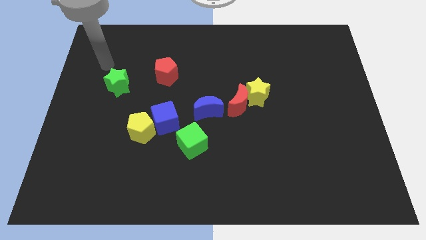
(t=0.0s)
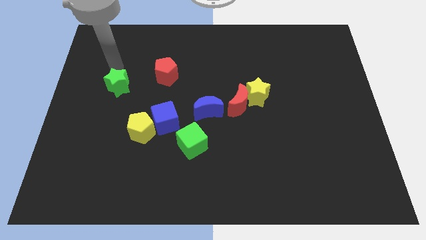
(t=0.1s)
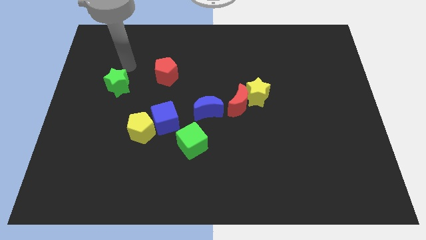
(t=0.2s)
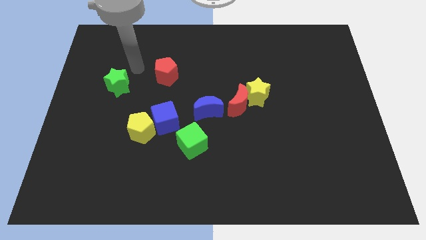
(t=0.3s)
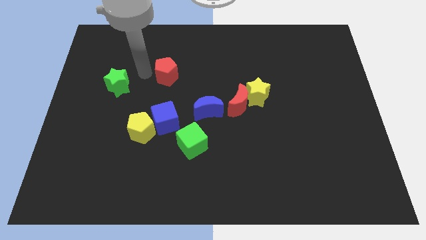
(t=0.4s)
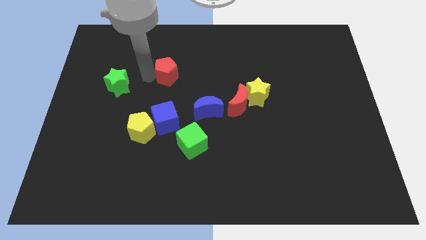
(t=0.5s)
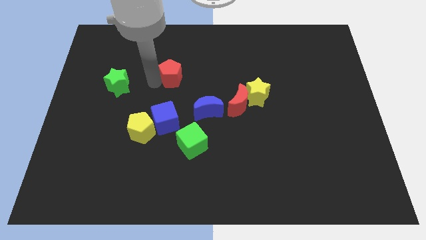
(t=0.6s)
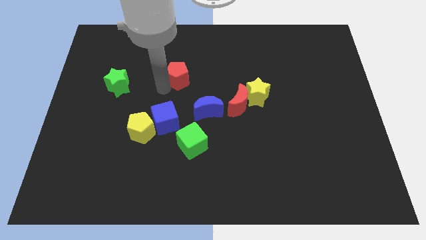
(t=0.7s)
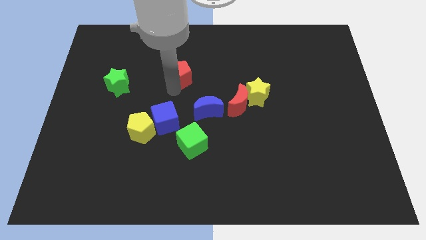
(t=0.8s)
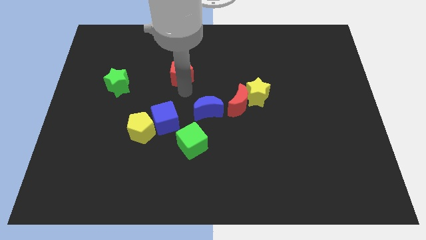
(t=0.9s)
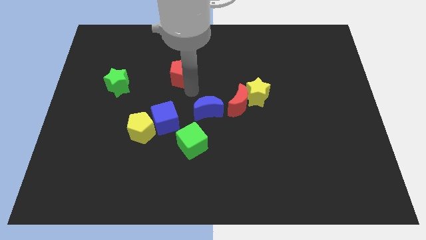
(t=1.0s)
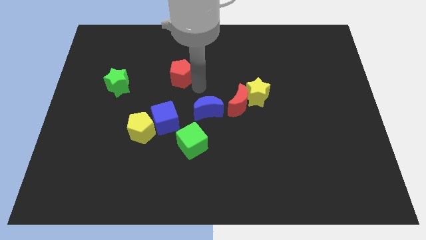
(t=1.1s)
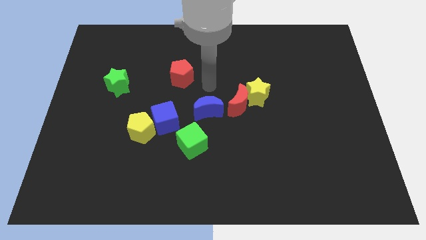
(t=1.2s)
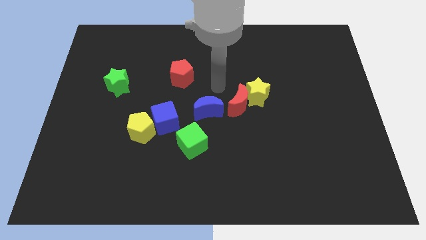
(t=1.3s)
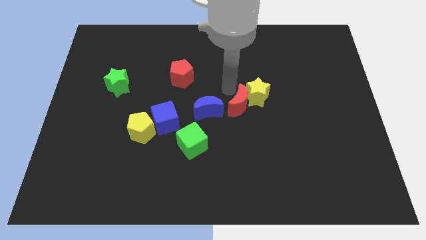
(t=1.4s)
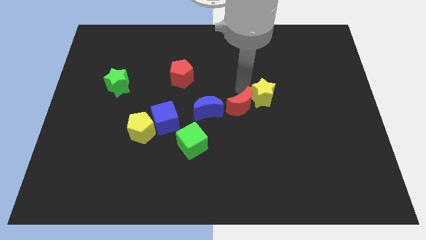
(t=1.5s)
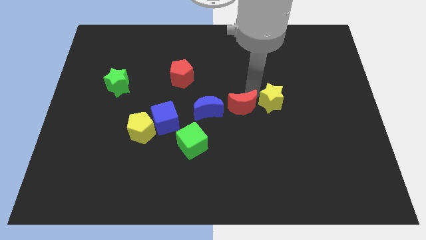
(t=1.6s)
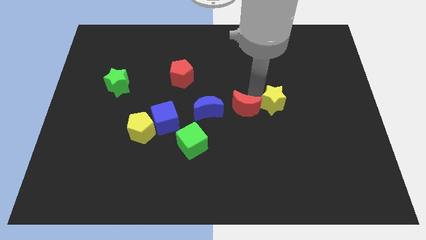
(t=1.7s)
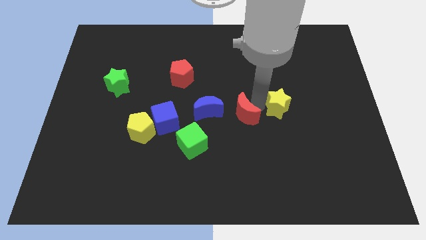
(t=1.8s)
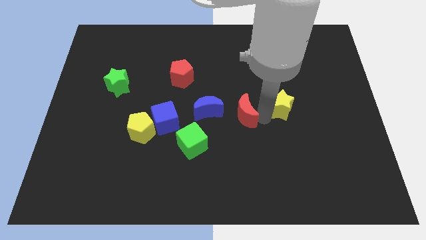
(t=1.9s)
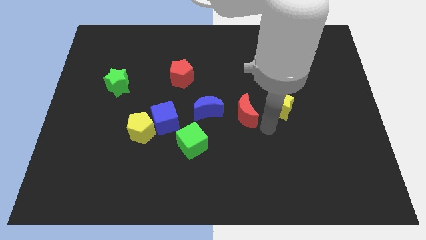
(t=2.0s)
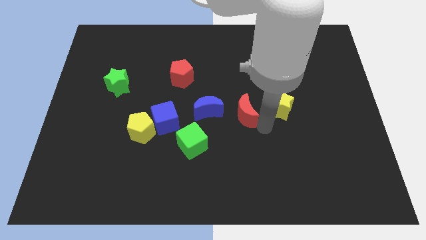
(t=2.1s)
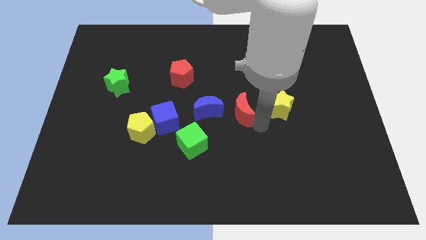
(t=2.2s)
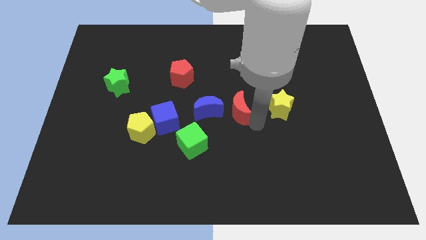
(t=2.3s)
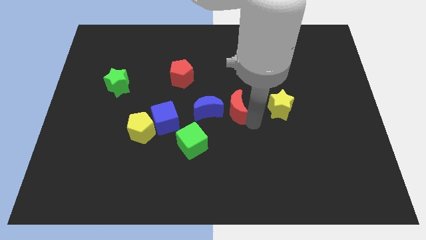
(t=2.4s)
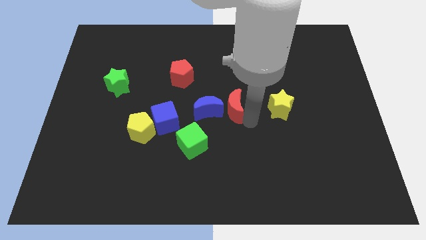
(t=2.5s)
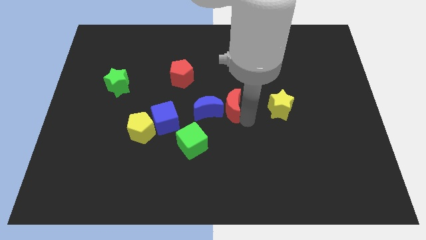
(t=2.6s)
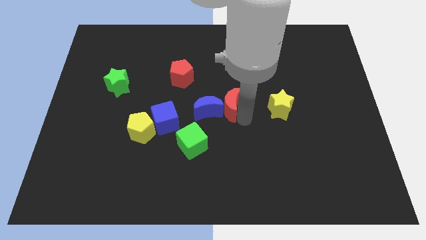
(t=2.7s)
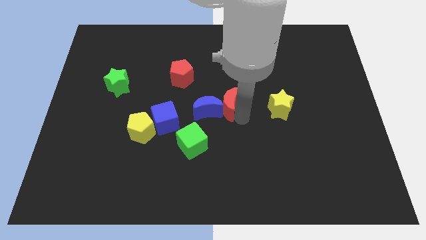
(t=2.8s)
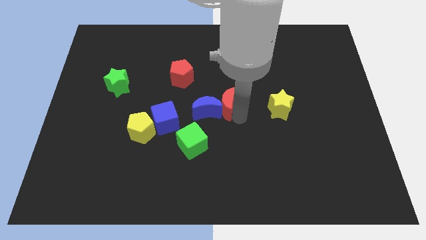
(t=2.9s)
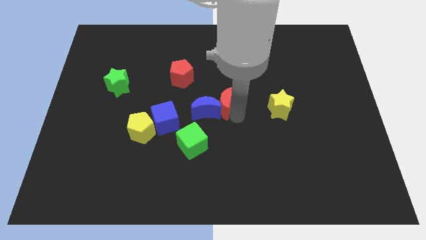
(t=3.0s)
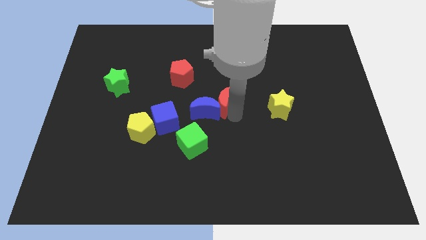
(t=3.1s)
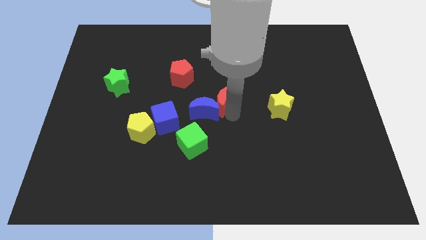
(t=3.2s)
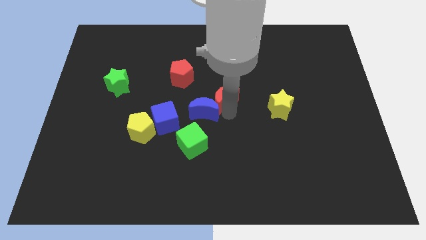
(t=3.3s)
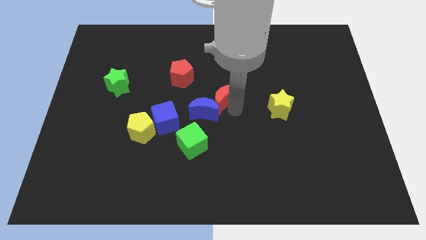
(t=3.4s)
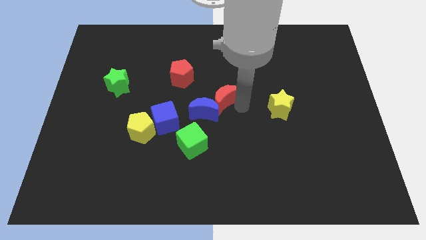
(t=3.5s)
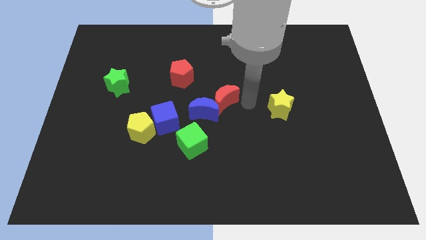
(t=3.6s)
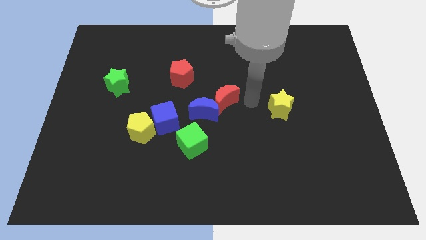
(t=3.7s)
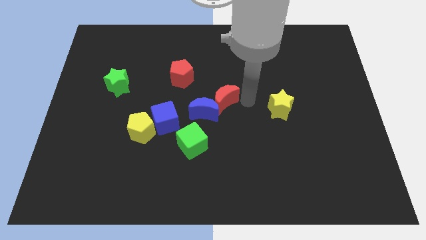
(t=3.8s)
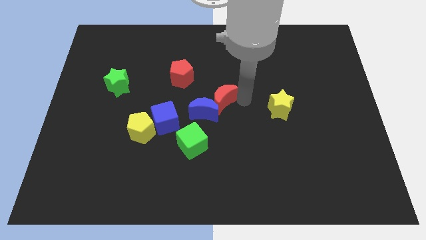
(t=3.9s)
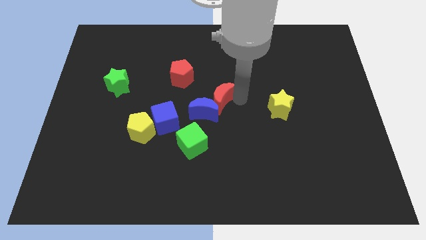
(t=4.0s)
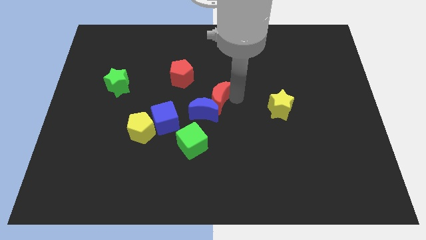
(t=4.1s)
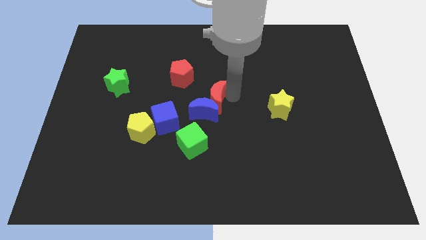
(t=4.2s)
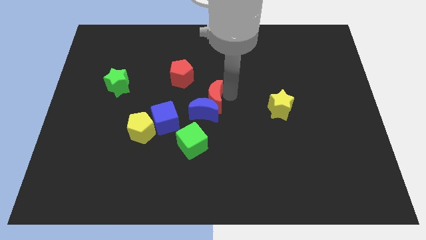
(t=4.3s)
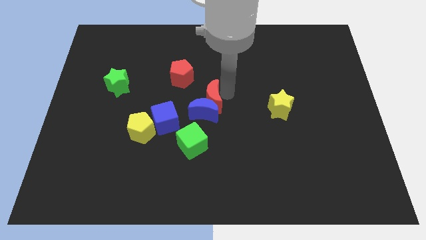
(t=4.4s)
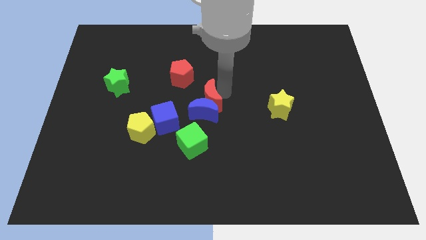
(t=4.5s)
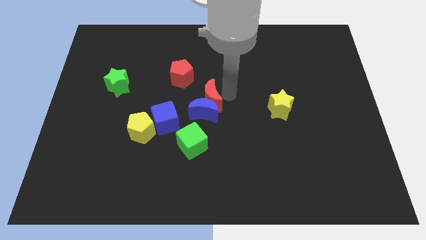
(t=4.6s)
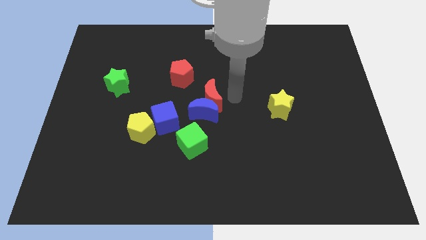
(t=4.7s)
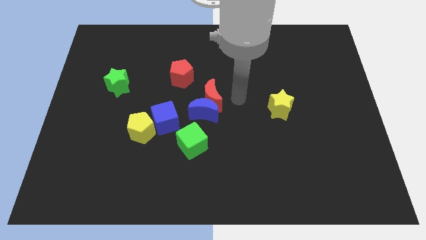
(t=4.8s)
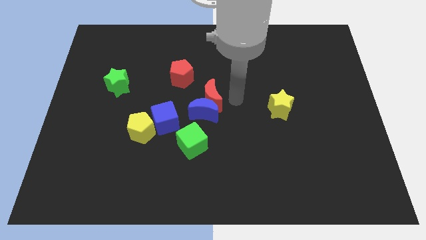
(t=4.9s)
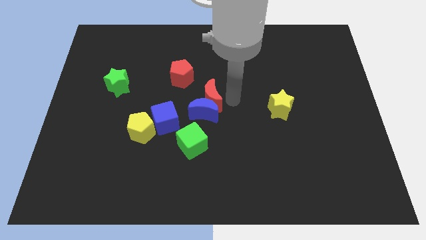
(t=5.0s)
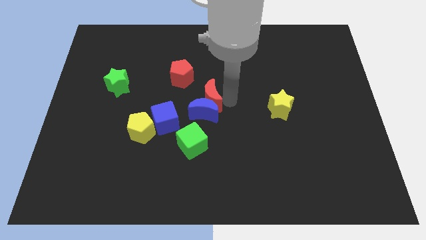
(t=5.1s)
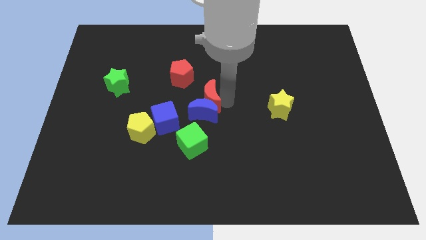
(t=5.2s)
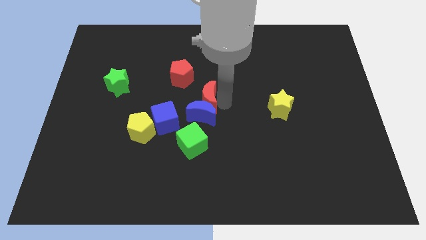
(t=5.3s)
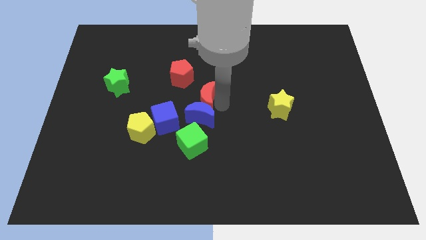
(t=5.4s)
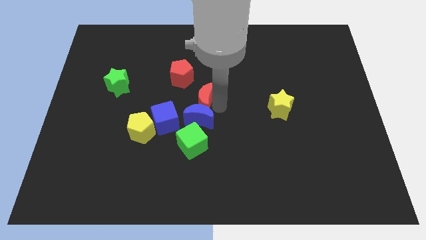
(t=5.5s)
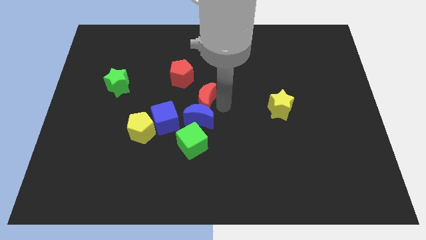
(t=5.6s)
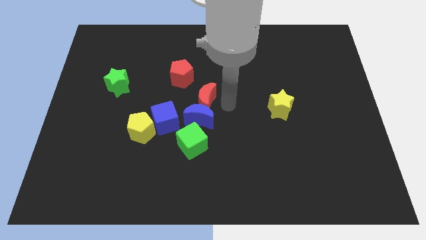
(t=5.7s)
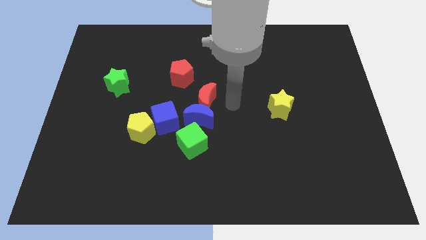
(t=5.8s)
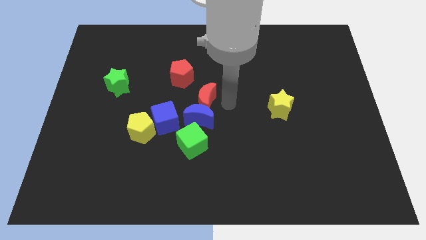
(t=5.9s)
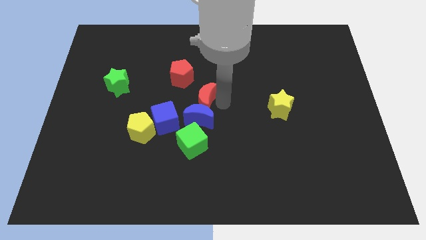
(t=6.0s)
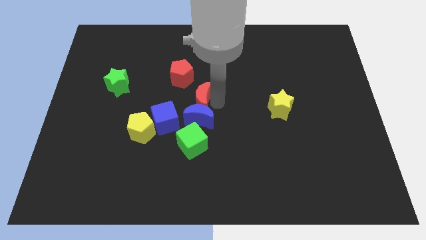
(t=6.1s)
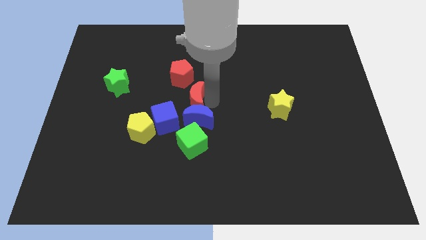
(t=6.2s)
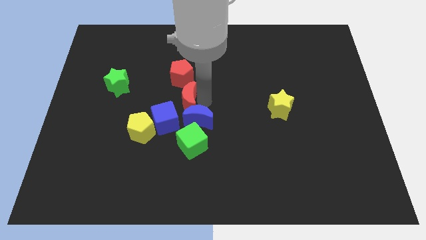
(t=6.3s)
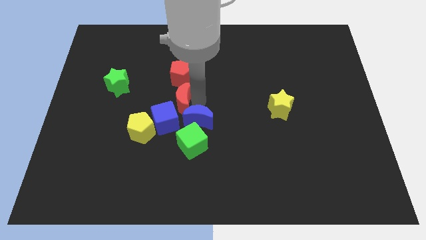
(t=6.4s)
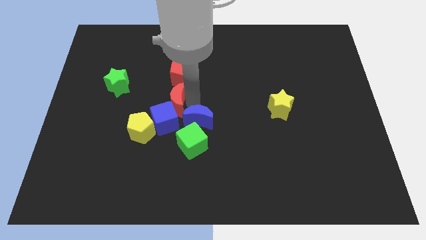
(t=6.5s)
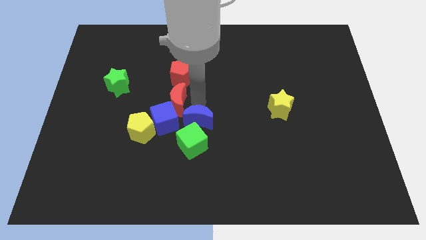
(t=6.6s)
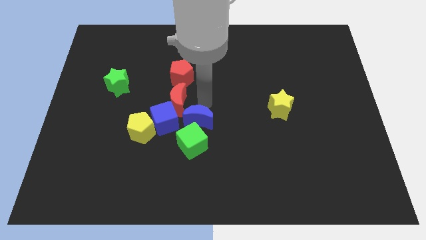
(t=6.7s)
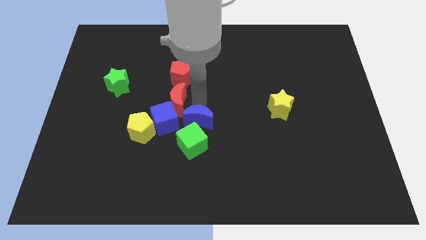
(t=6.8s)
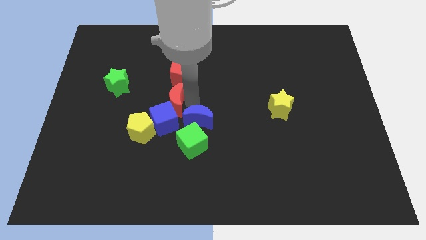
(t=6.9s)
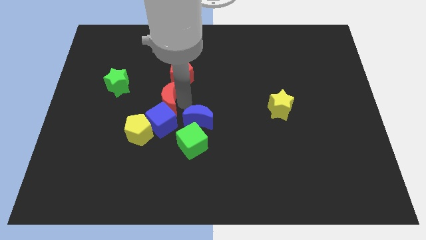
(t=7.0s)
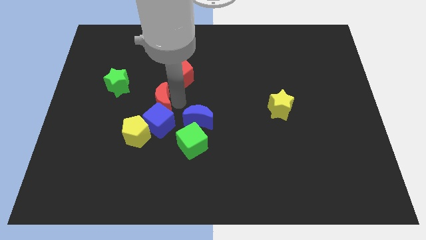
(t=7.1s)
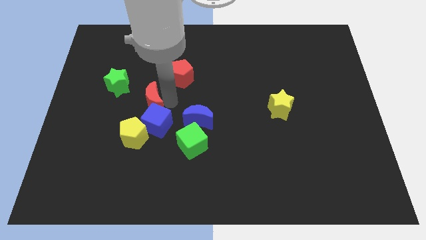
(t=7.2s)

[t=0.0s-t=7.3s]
move the red moon to the left

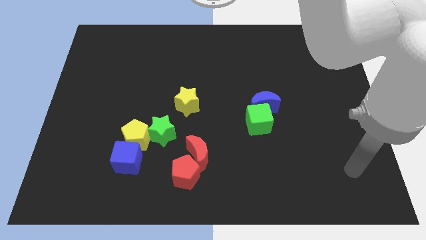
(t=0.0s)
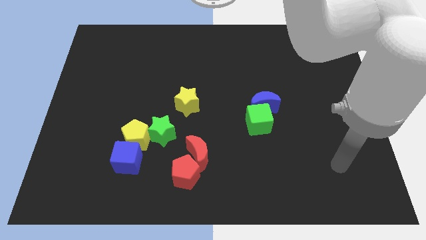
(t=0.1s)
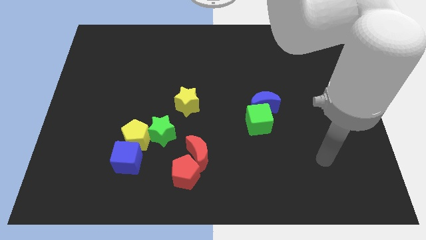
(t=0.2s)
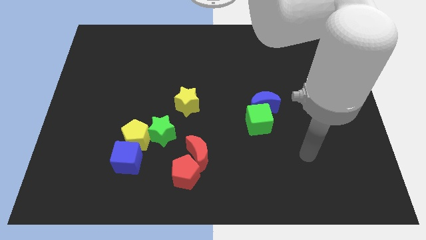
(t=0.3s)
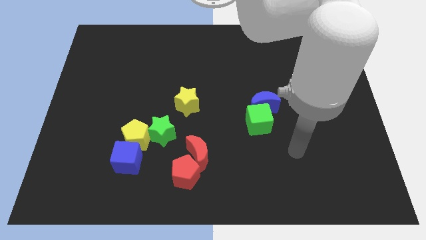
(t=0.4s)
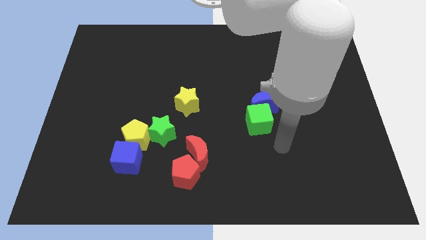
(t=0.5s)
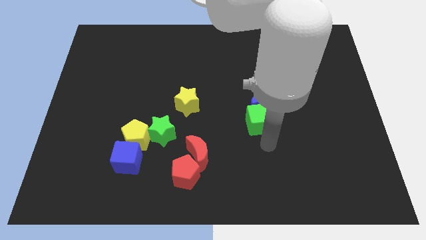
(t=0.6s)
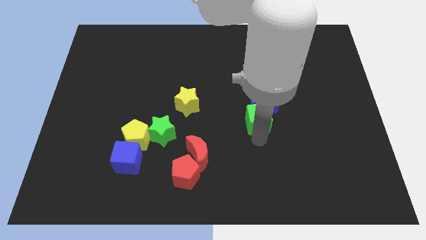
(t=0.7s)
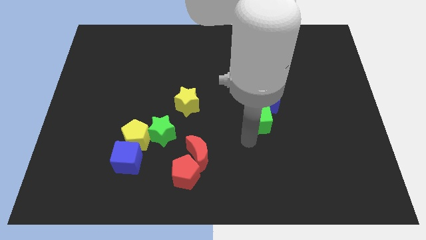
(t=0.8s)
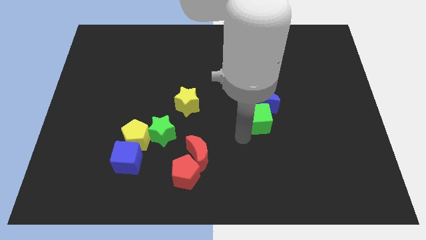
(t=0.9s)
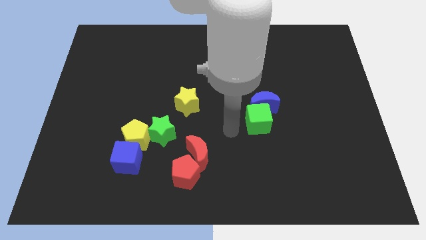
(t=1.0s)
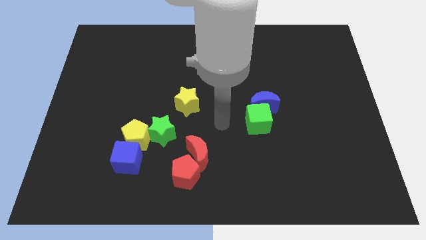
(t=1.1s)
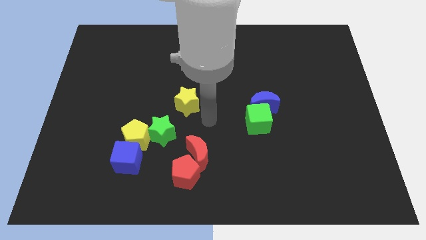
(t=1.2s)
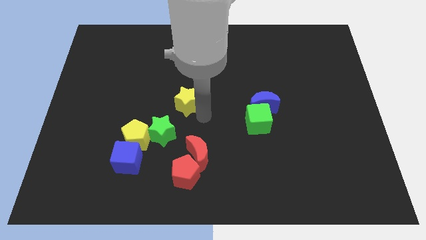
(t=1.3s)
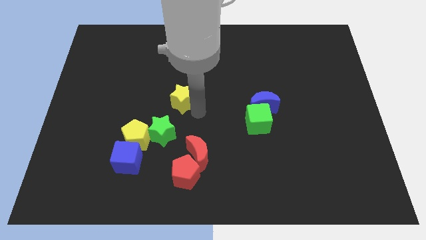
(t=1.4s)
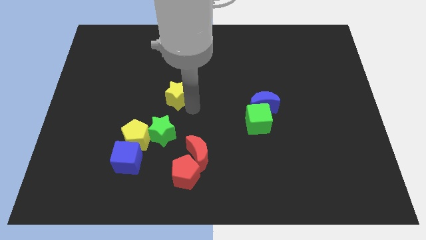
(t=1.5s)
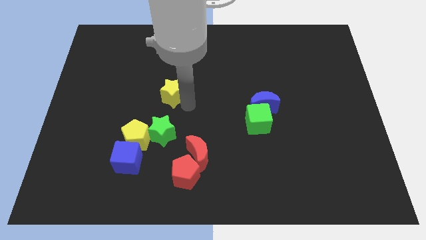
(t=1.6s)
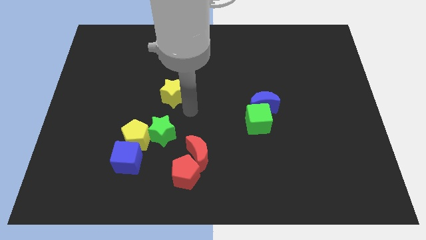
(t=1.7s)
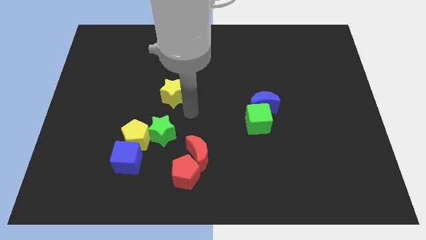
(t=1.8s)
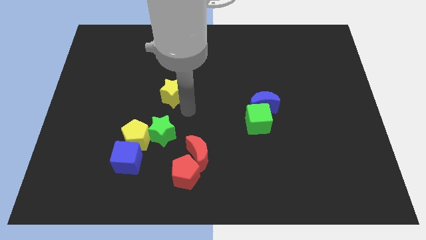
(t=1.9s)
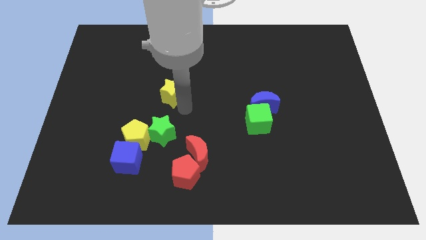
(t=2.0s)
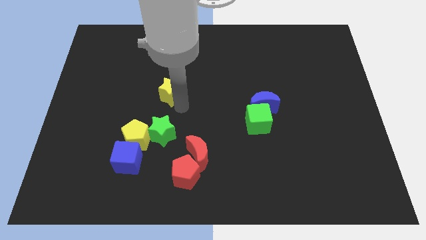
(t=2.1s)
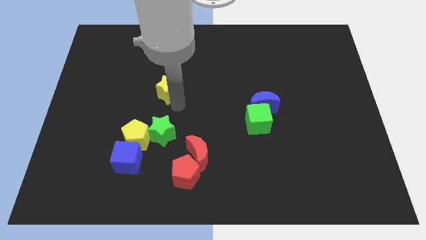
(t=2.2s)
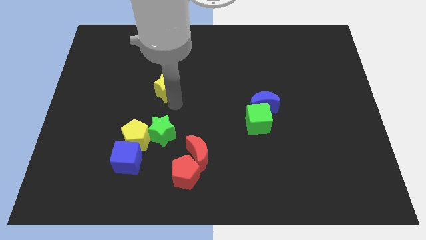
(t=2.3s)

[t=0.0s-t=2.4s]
slightly move the yellow star diagonally upwards and to the left
